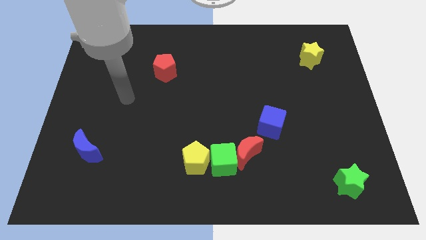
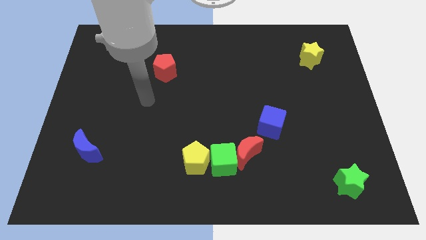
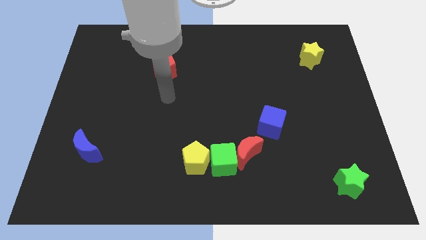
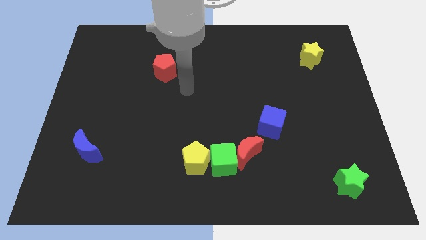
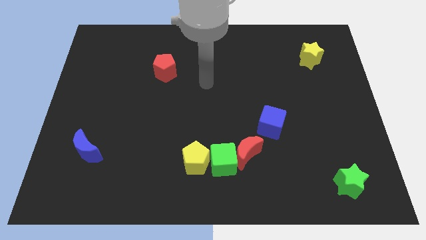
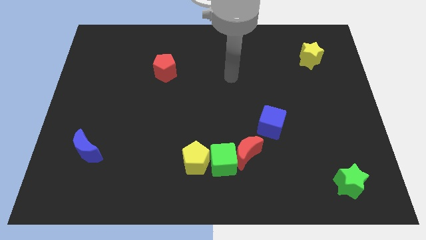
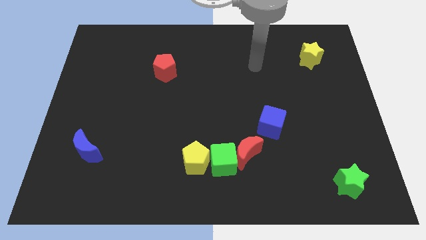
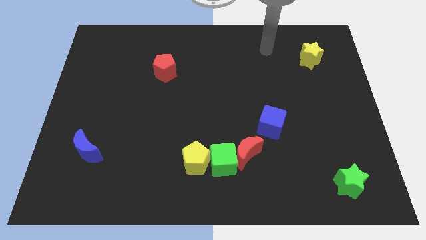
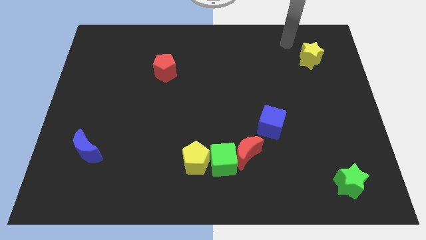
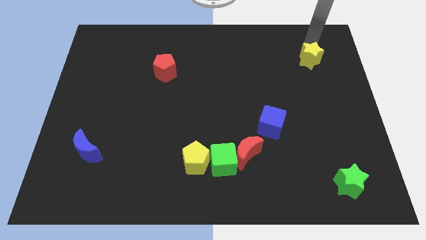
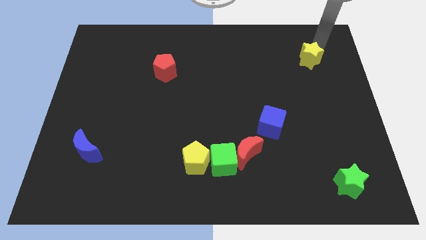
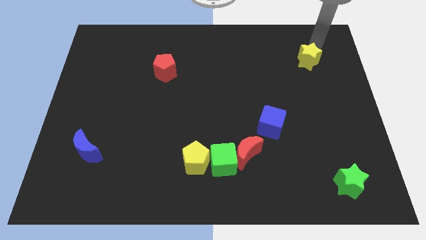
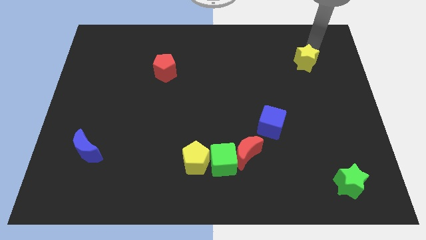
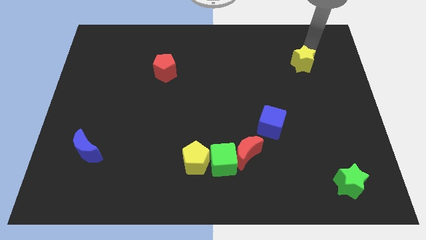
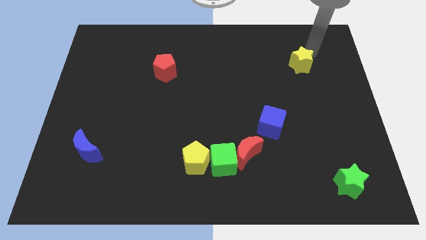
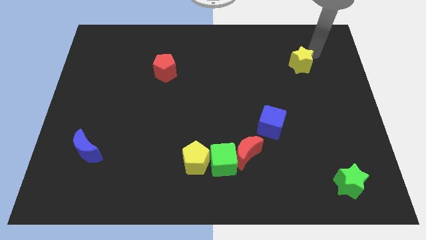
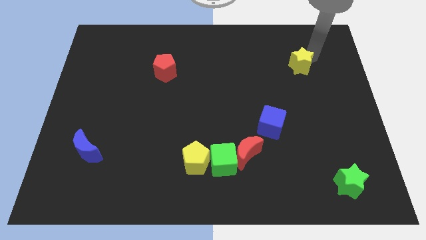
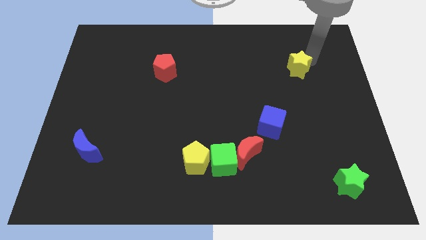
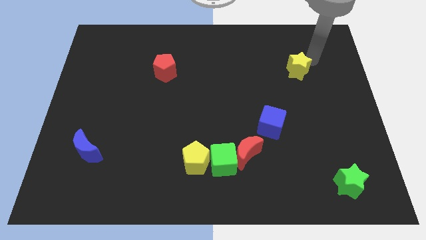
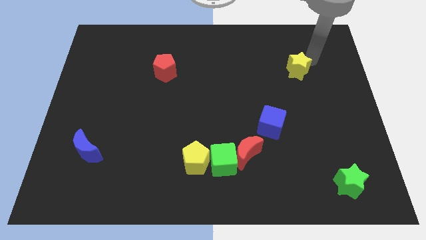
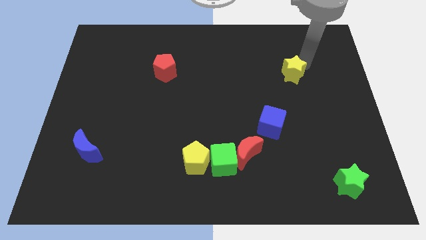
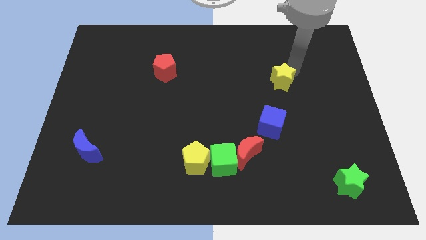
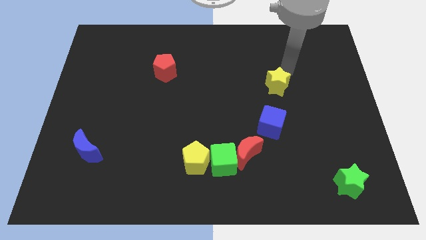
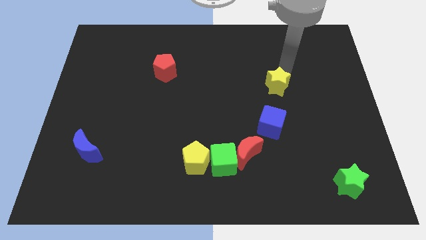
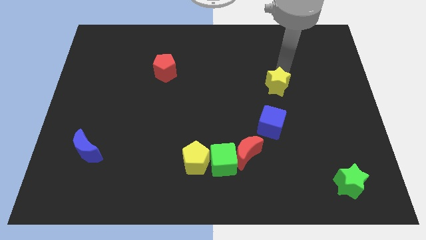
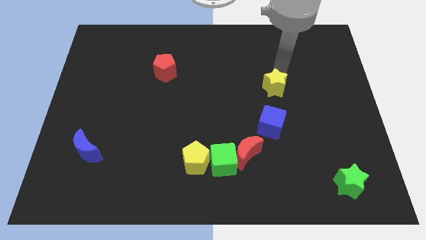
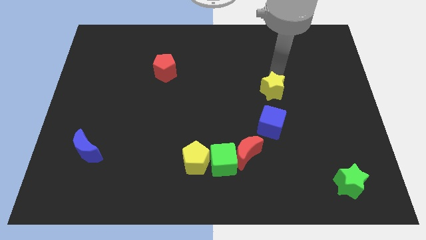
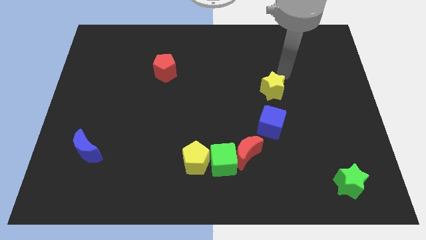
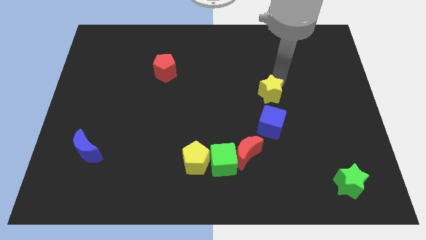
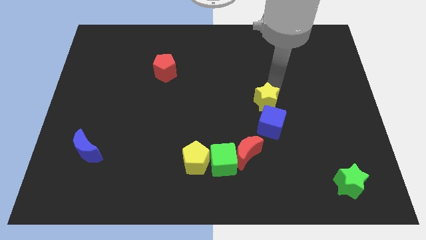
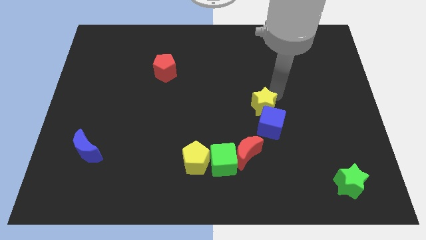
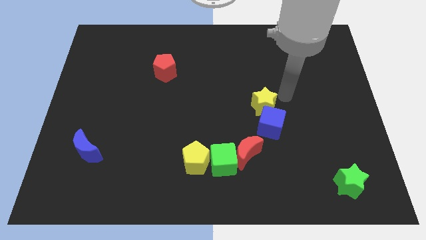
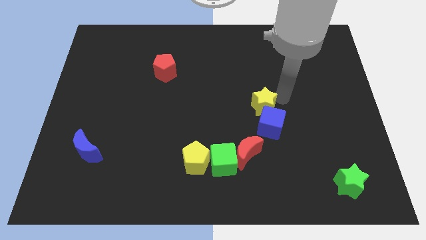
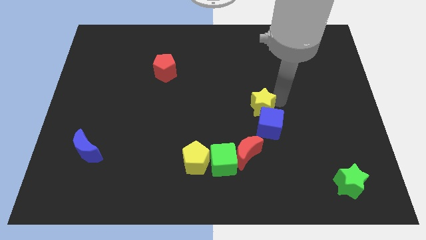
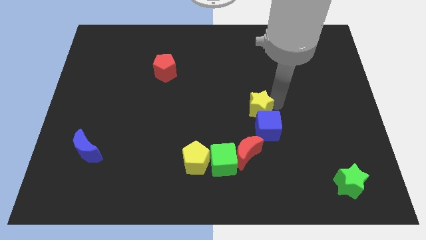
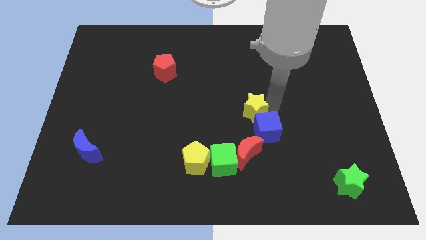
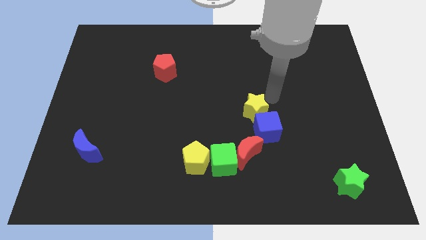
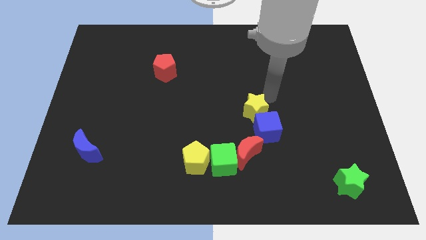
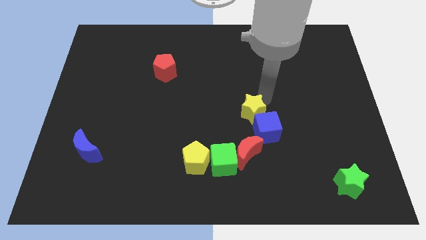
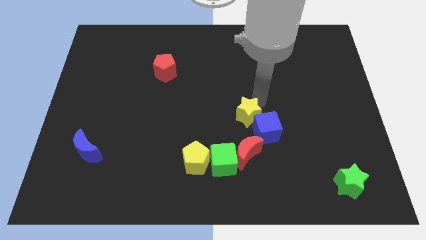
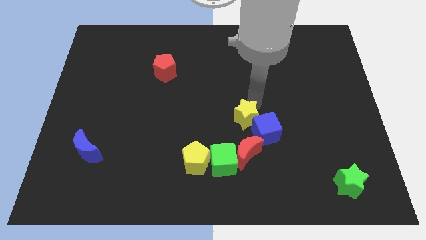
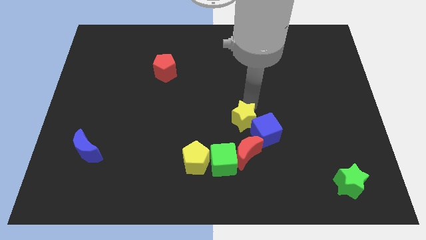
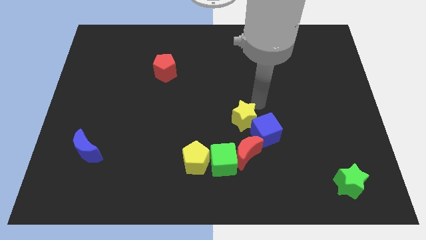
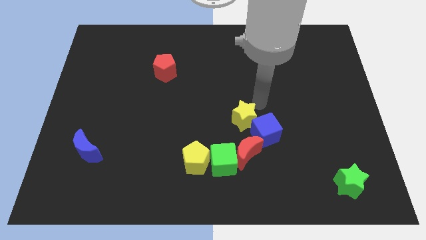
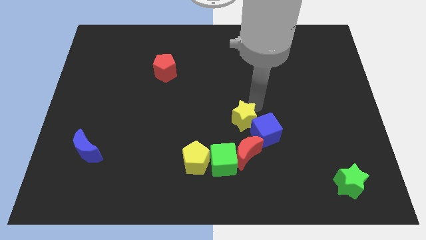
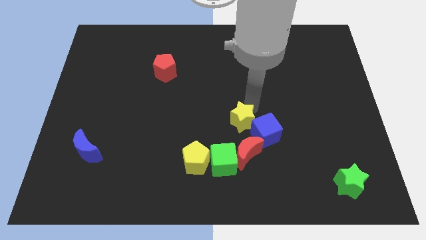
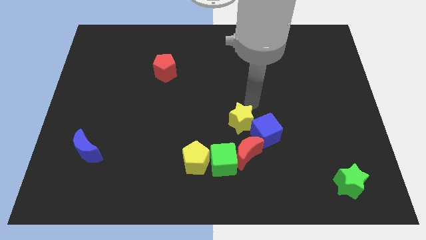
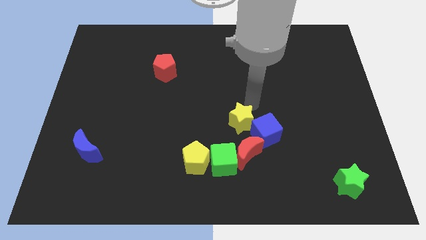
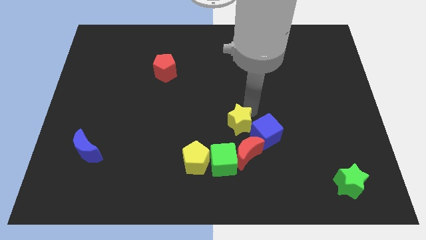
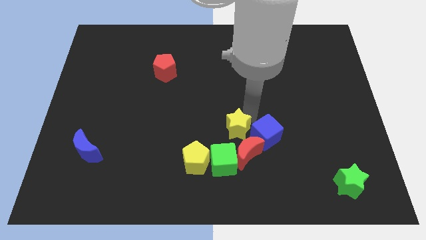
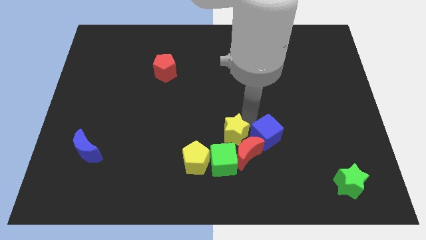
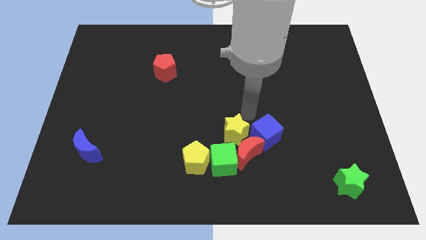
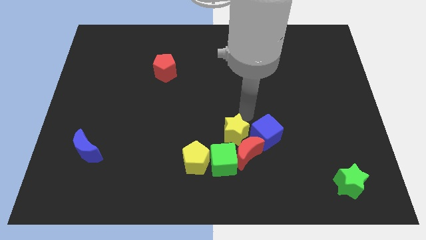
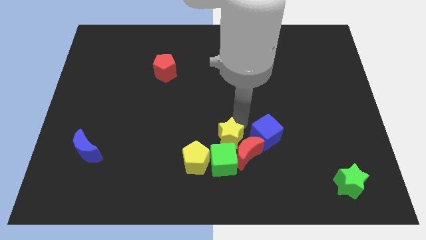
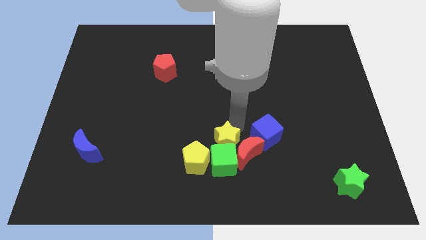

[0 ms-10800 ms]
put the yellow star towards the green cube

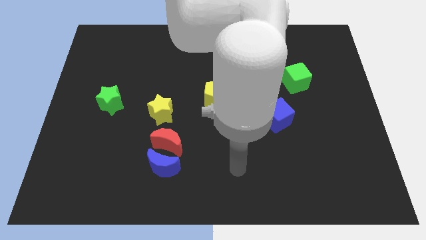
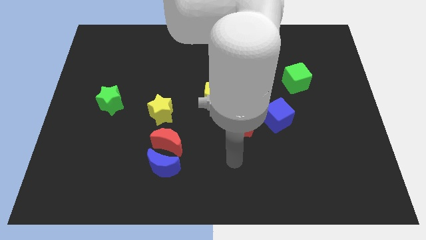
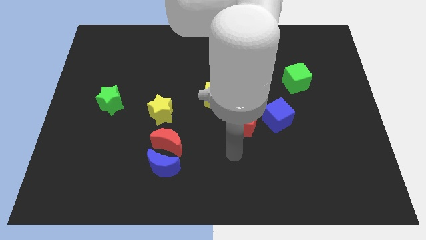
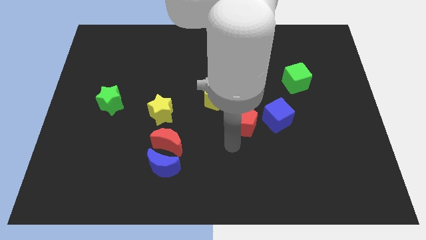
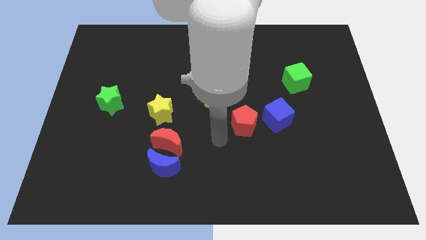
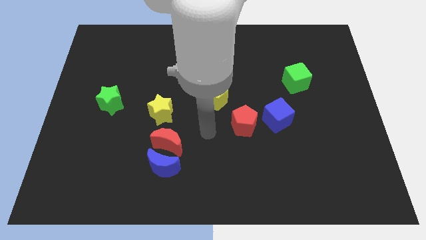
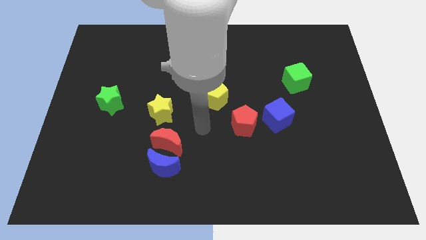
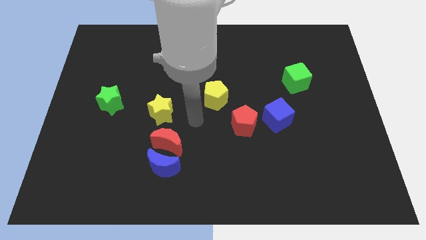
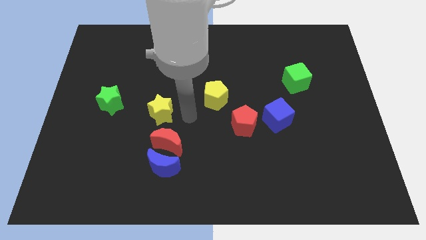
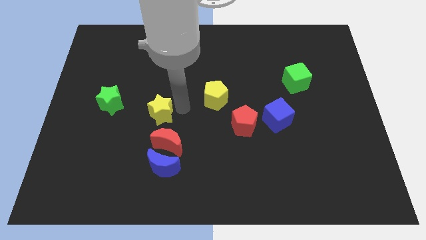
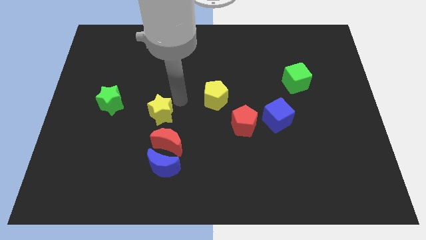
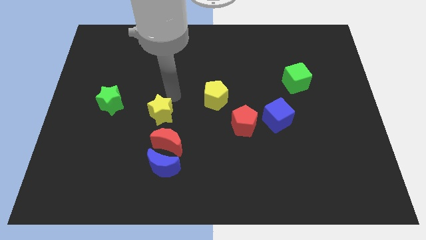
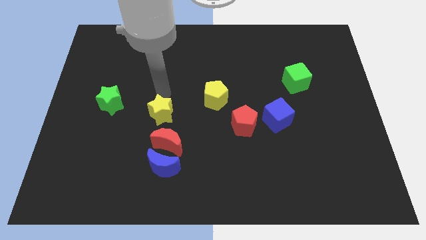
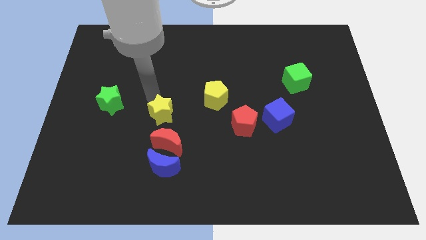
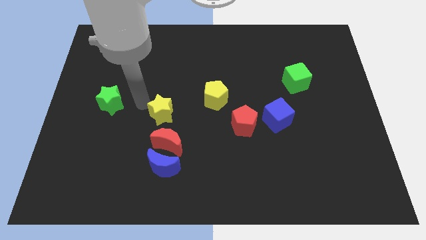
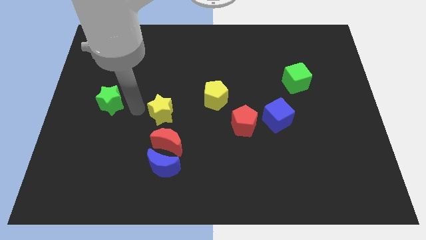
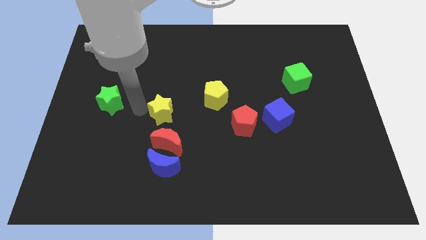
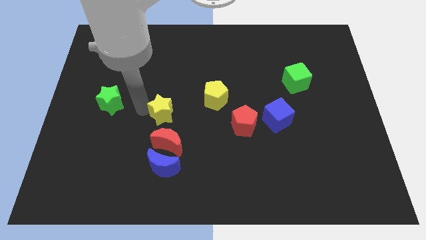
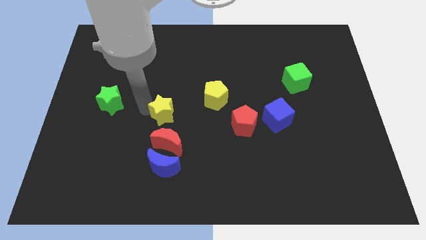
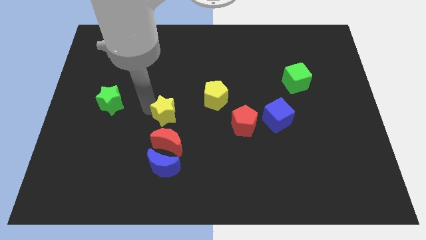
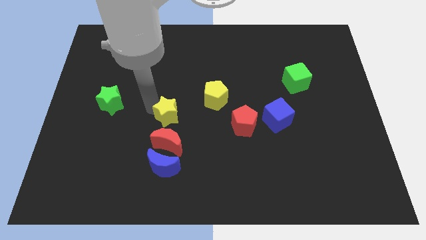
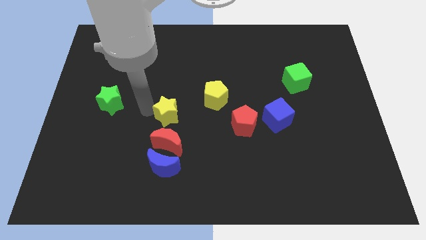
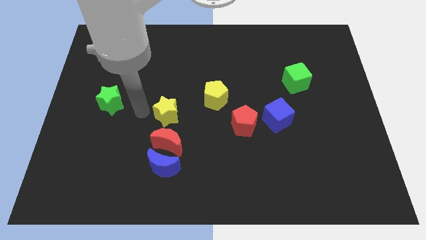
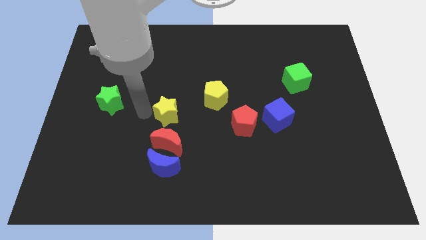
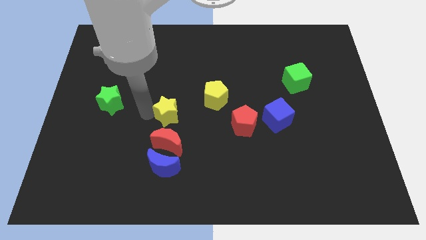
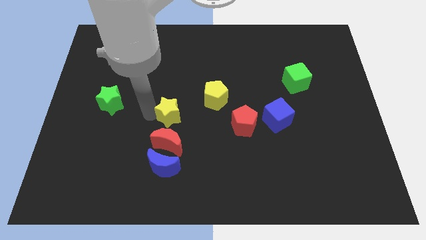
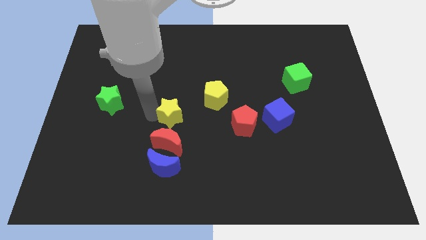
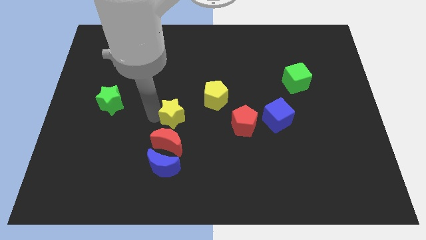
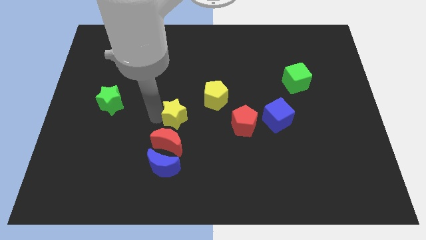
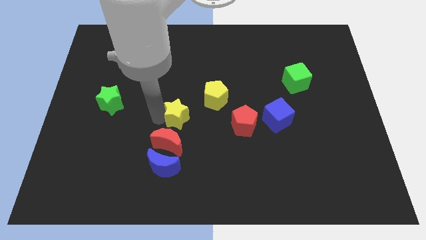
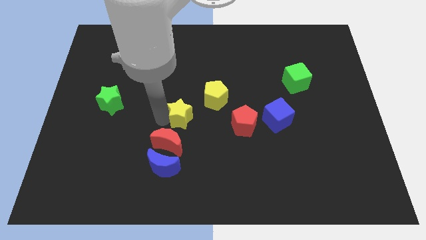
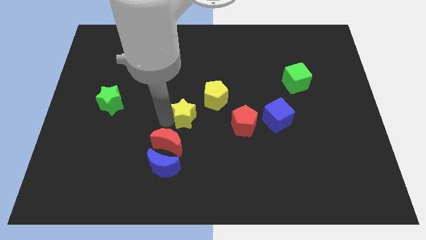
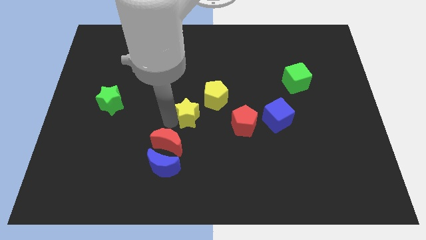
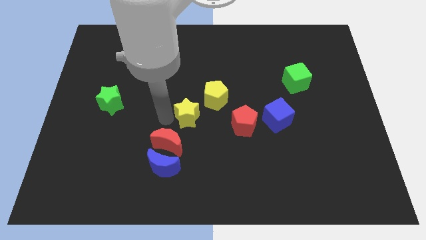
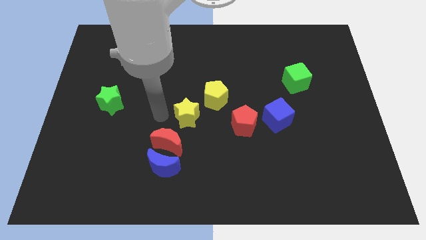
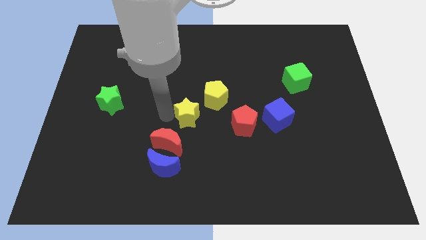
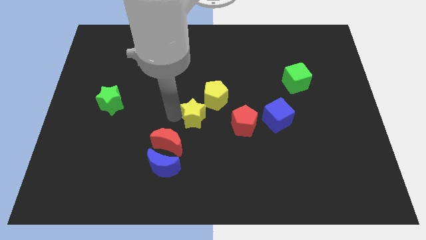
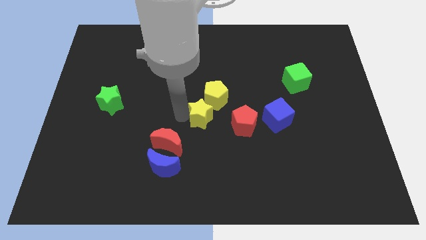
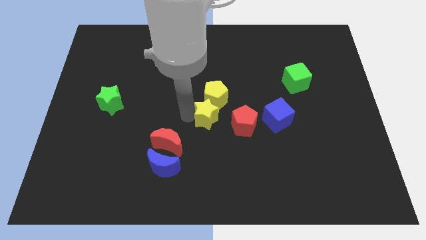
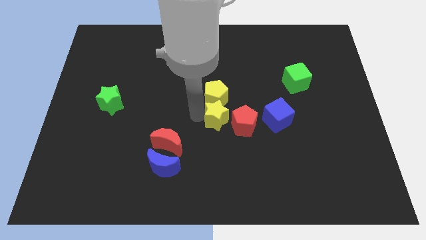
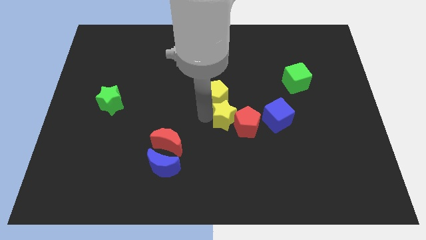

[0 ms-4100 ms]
put the yellow star next to the red pentagon
